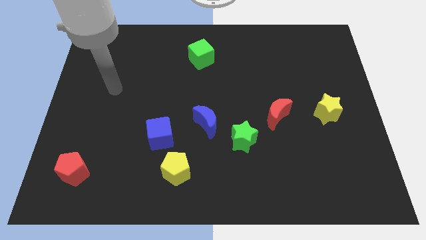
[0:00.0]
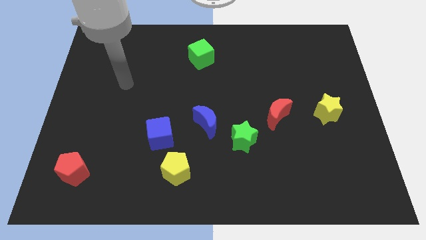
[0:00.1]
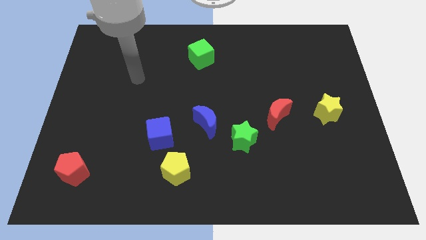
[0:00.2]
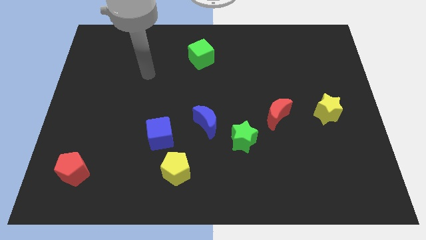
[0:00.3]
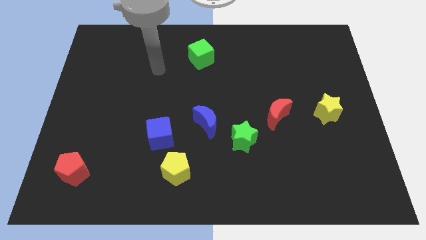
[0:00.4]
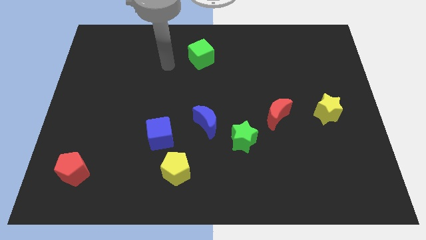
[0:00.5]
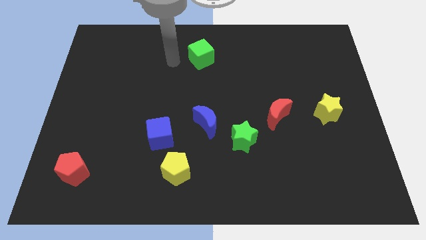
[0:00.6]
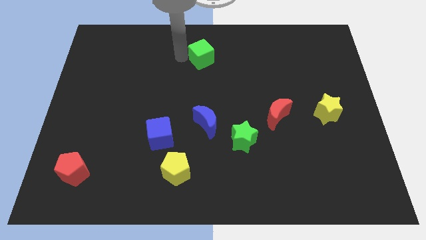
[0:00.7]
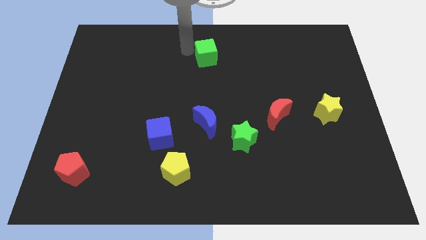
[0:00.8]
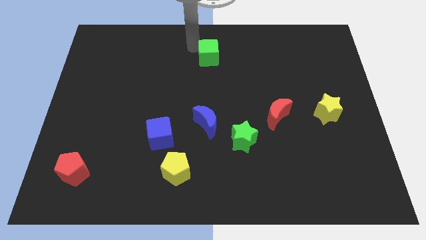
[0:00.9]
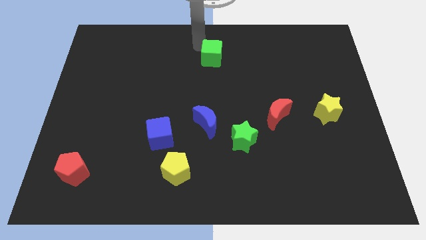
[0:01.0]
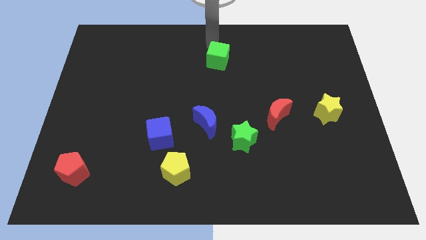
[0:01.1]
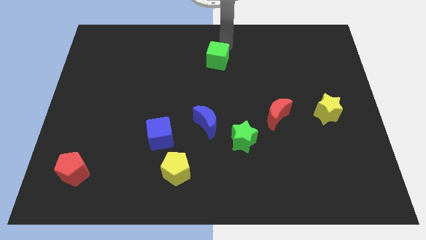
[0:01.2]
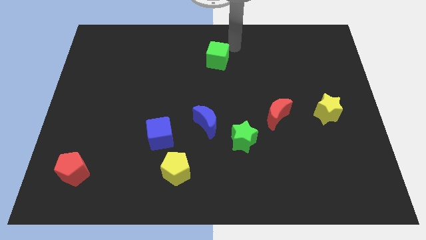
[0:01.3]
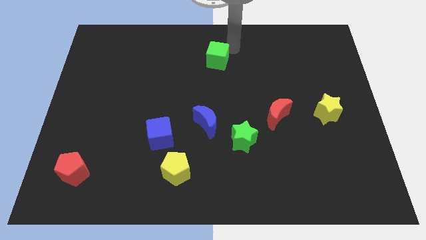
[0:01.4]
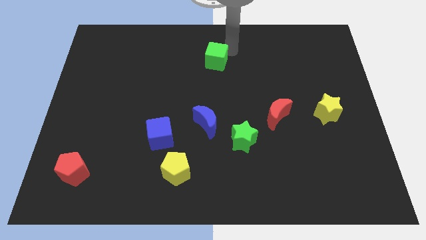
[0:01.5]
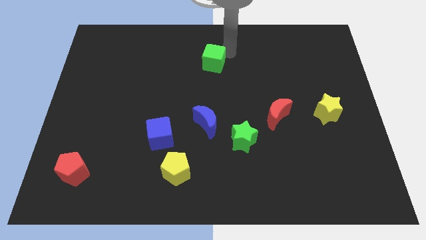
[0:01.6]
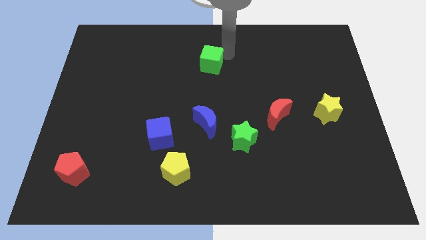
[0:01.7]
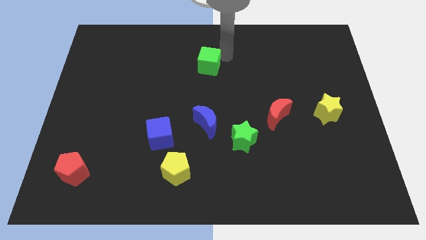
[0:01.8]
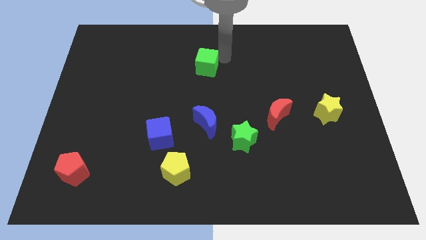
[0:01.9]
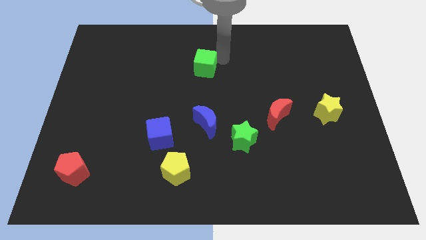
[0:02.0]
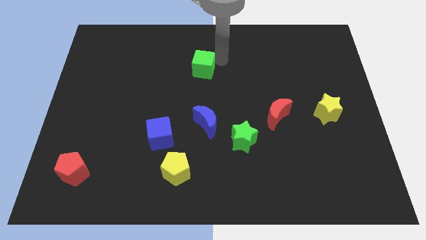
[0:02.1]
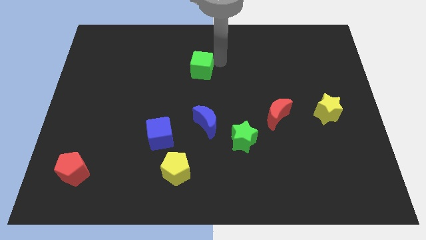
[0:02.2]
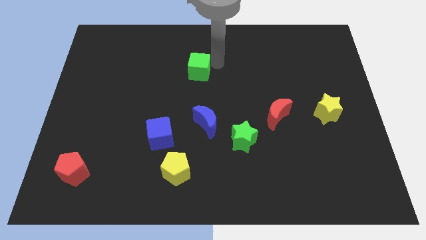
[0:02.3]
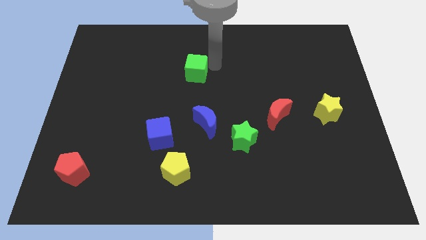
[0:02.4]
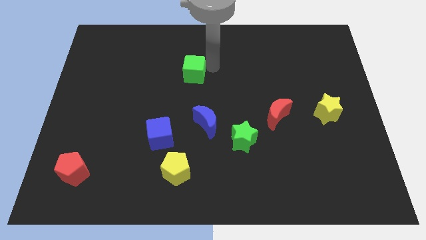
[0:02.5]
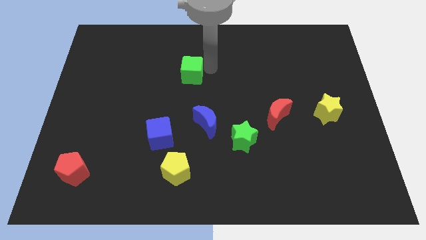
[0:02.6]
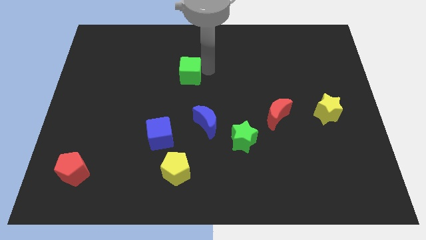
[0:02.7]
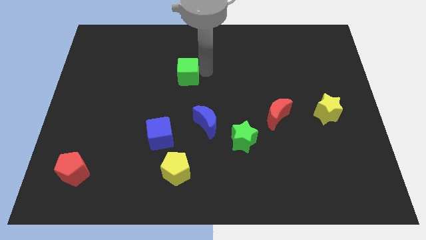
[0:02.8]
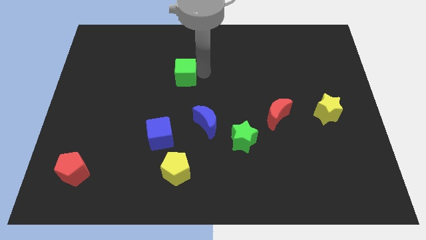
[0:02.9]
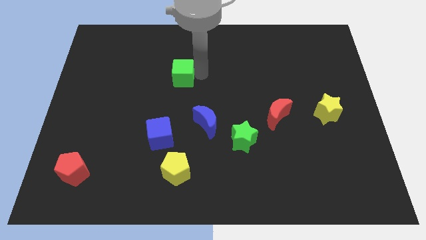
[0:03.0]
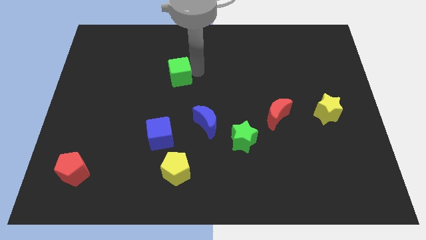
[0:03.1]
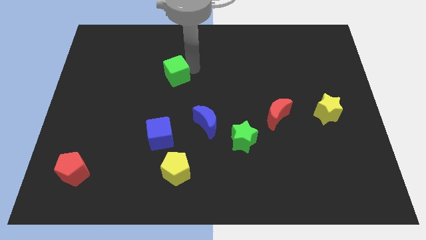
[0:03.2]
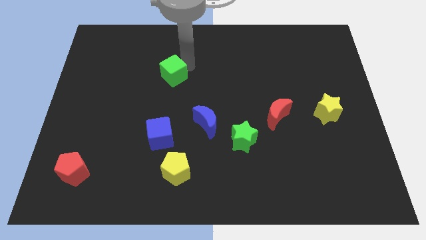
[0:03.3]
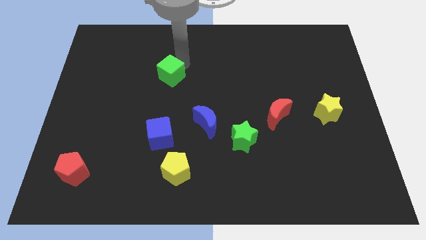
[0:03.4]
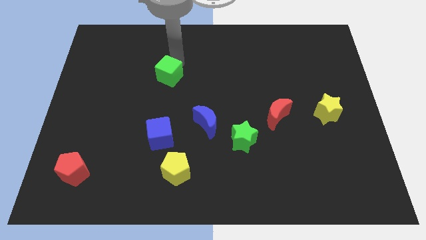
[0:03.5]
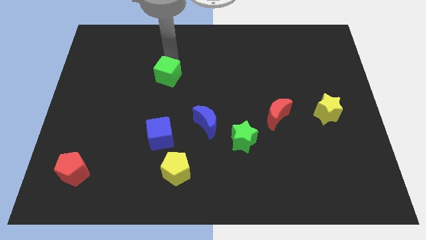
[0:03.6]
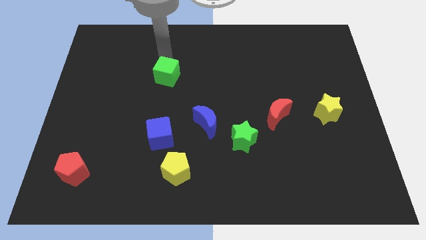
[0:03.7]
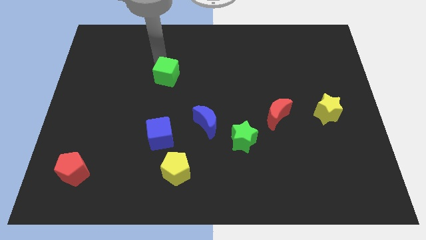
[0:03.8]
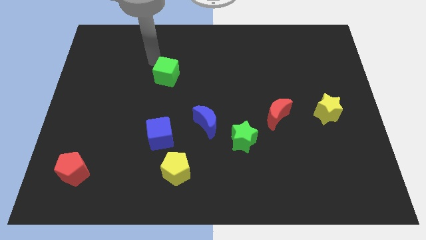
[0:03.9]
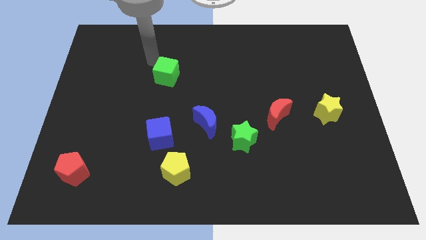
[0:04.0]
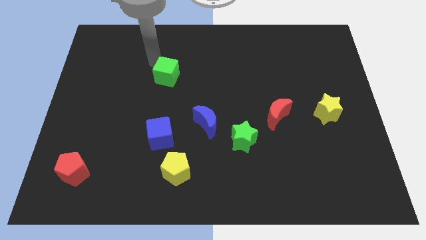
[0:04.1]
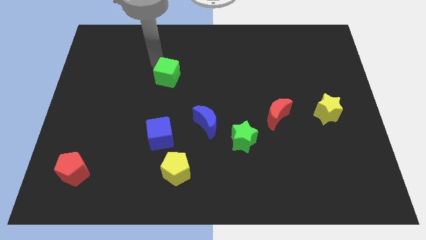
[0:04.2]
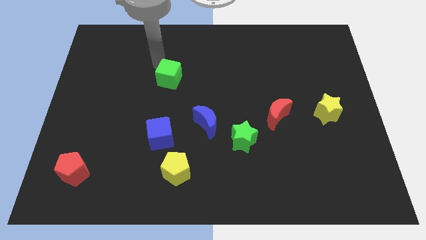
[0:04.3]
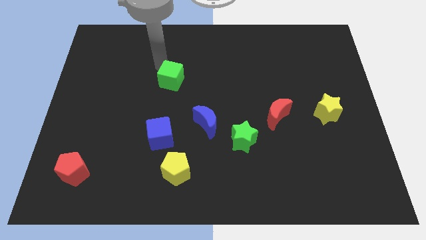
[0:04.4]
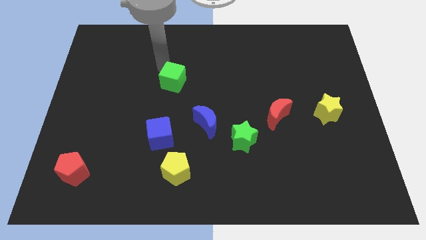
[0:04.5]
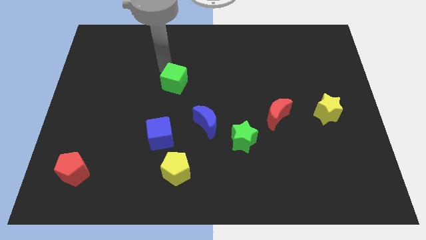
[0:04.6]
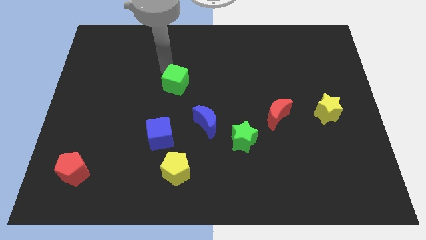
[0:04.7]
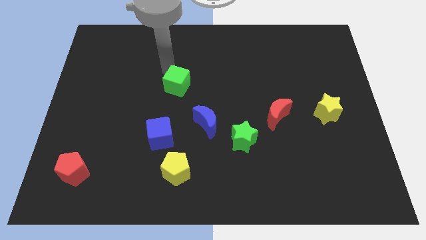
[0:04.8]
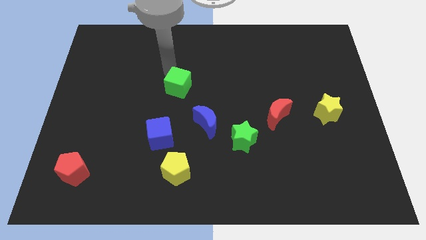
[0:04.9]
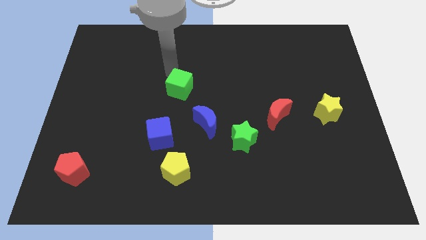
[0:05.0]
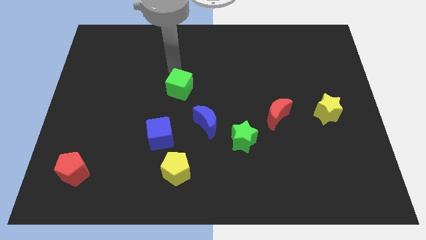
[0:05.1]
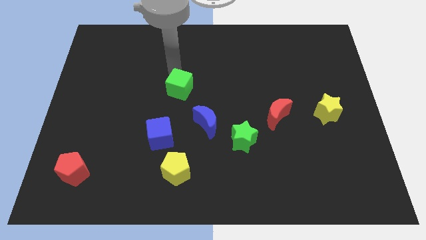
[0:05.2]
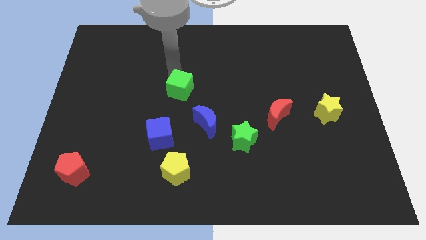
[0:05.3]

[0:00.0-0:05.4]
put the green cube diagonally up and to the left of the blue moon

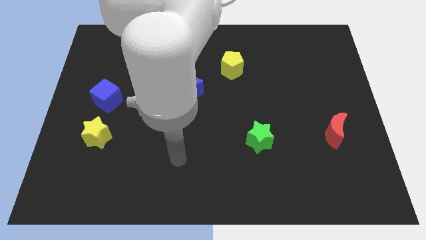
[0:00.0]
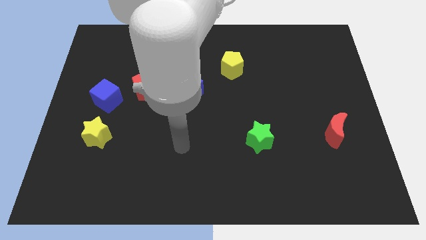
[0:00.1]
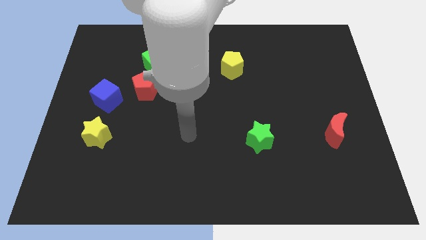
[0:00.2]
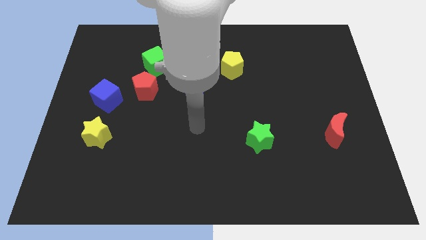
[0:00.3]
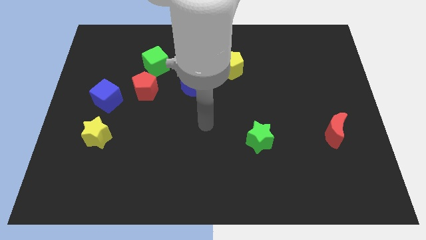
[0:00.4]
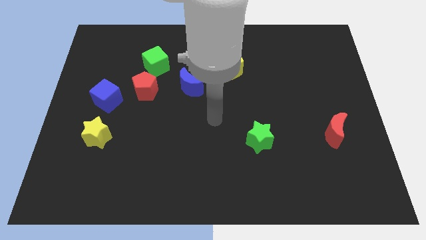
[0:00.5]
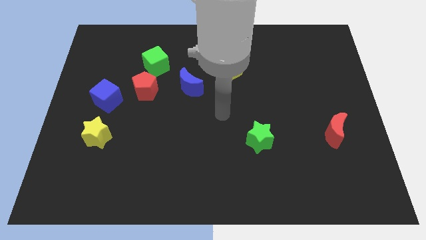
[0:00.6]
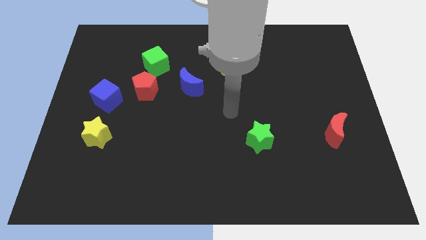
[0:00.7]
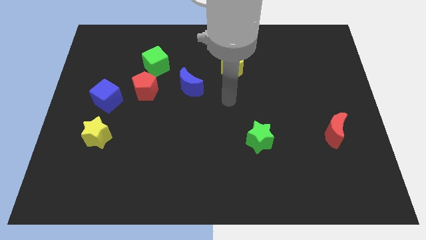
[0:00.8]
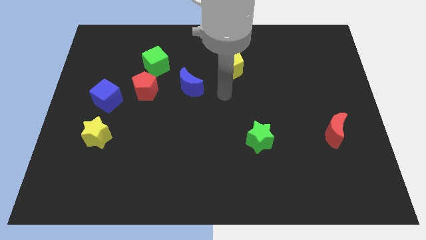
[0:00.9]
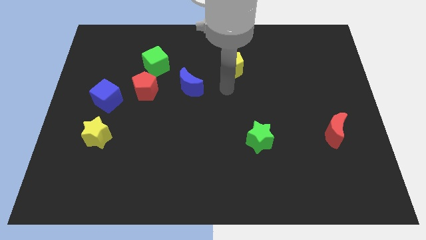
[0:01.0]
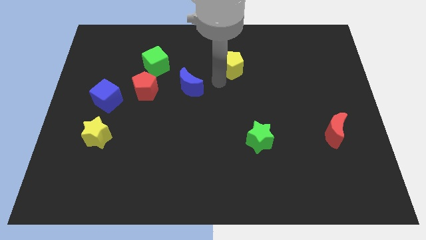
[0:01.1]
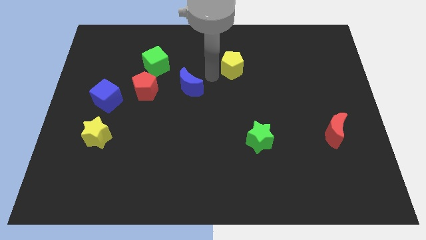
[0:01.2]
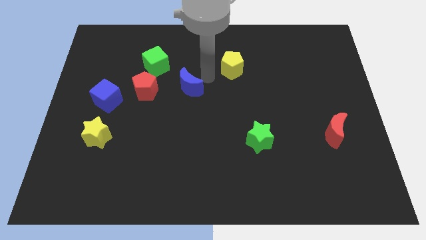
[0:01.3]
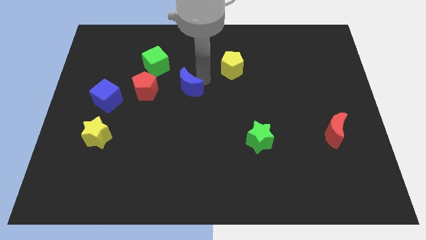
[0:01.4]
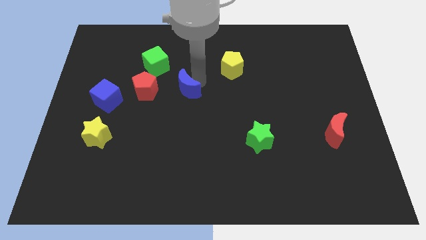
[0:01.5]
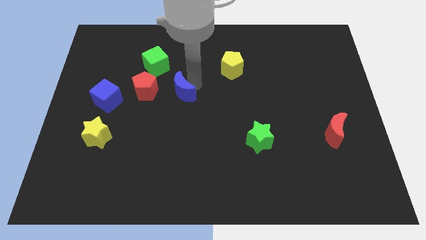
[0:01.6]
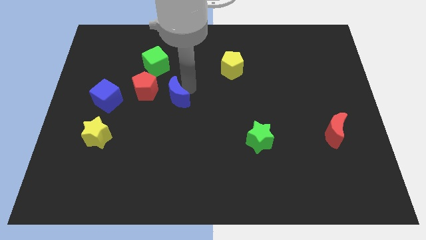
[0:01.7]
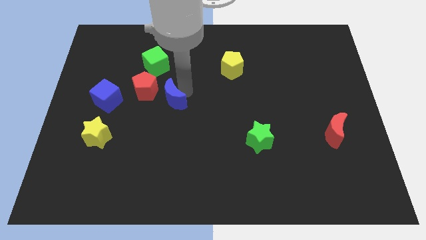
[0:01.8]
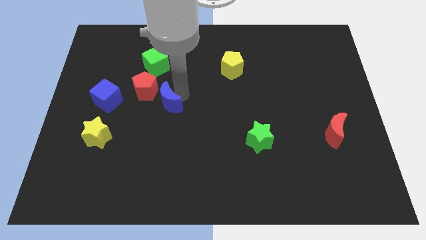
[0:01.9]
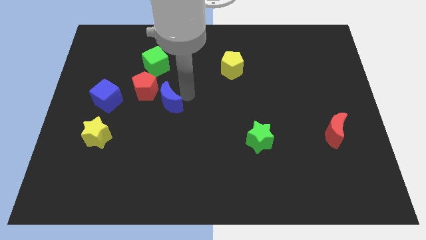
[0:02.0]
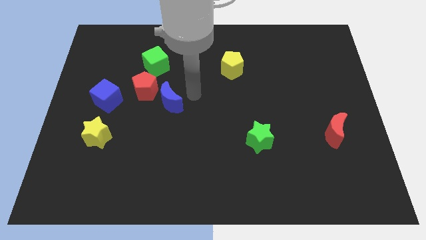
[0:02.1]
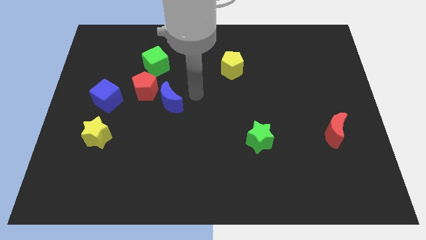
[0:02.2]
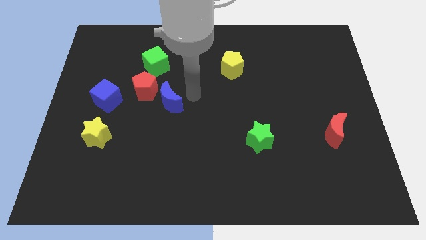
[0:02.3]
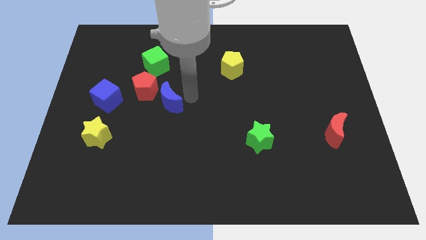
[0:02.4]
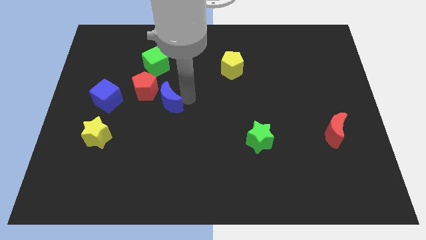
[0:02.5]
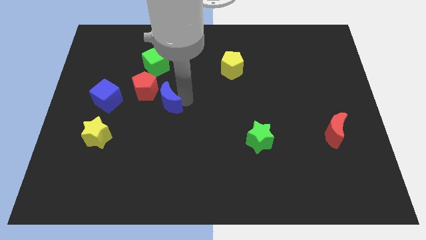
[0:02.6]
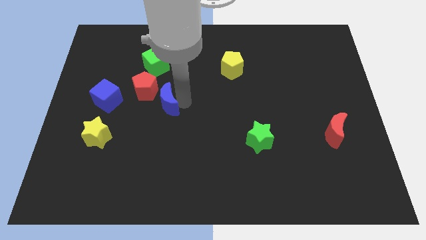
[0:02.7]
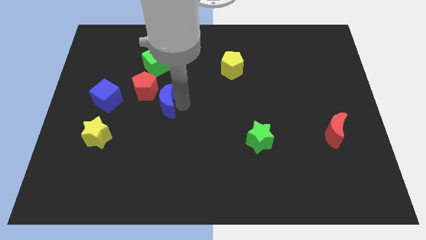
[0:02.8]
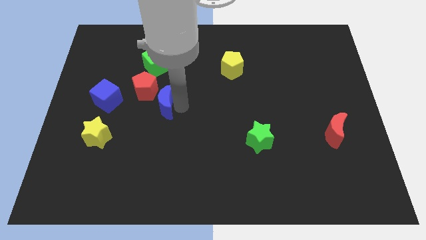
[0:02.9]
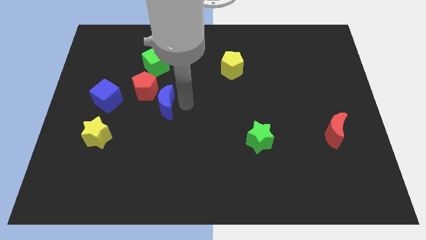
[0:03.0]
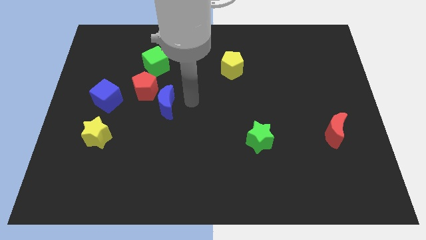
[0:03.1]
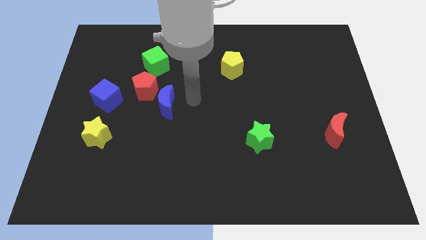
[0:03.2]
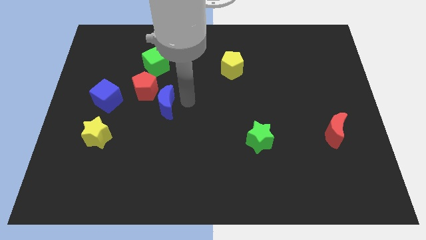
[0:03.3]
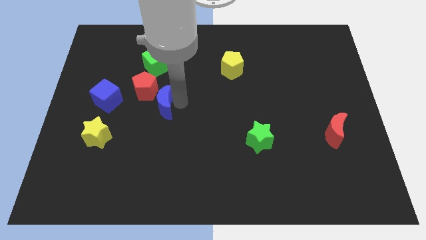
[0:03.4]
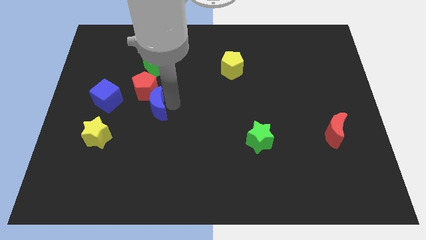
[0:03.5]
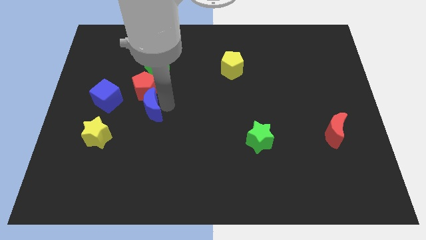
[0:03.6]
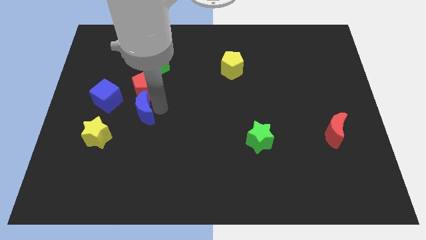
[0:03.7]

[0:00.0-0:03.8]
push the blue moon to the bottom left of the red pentagon
